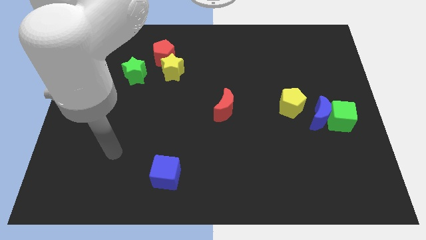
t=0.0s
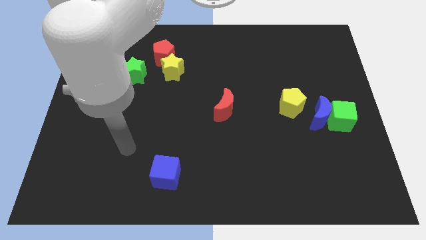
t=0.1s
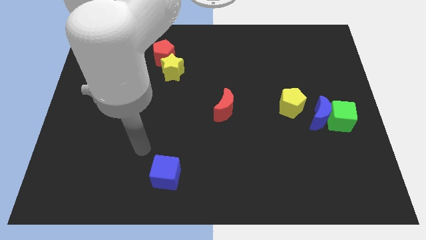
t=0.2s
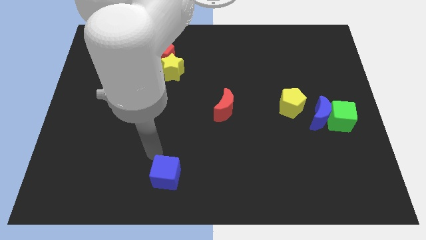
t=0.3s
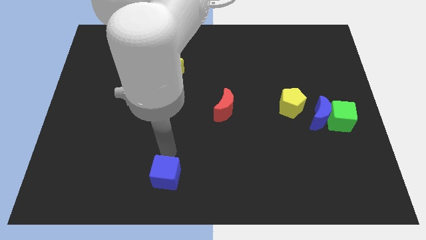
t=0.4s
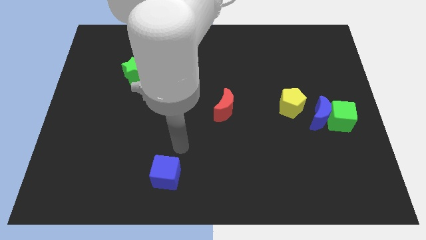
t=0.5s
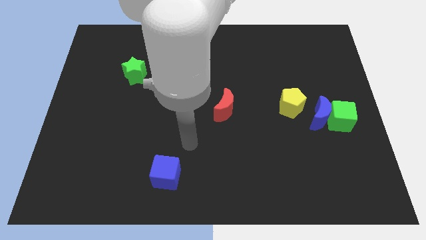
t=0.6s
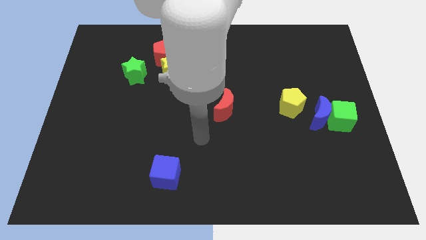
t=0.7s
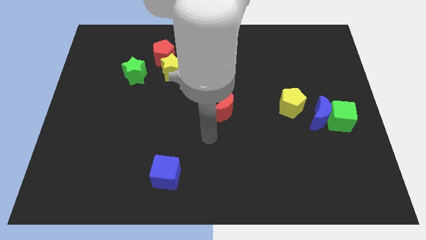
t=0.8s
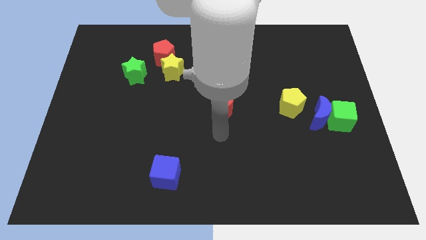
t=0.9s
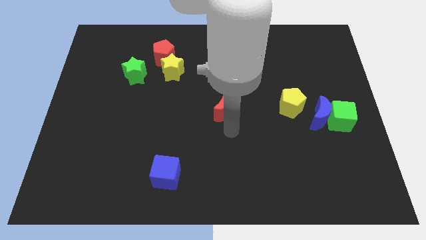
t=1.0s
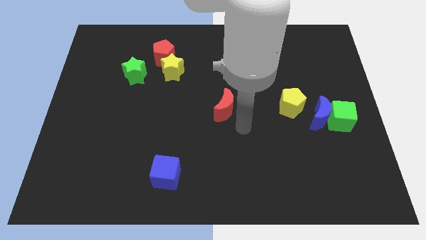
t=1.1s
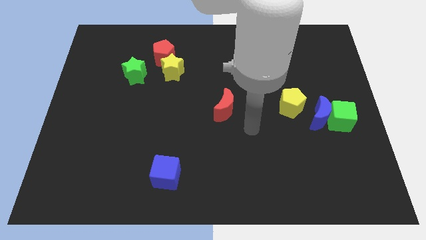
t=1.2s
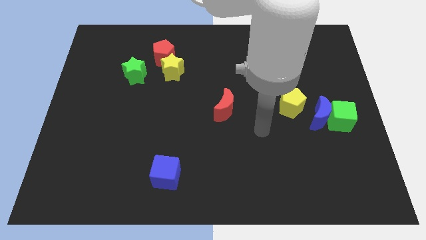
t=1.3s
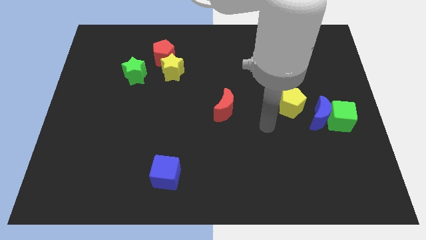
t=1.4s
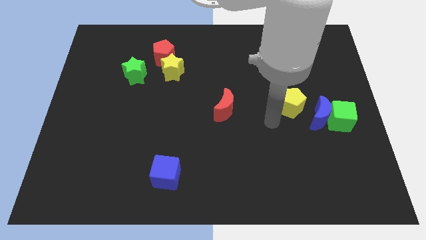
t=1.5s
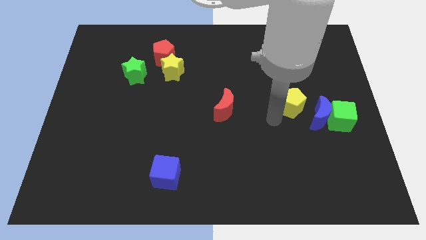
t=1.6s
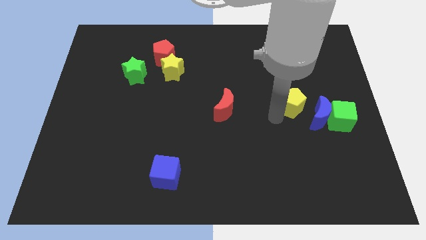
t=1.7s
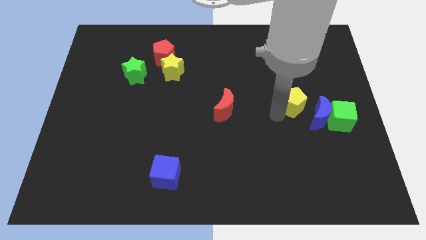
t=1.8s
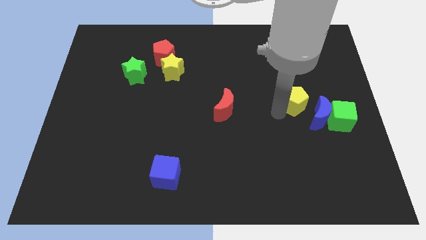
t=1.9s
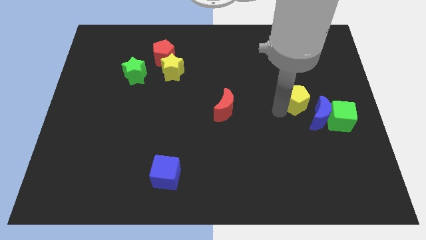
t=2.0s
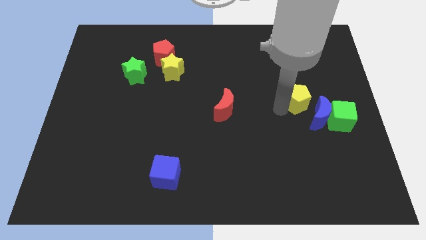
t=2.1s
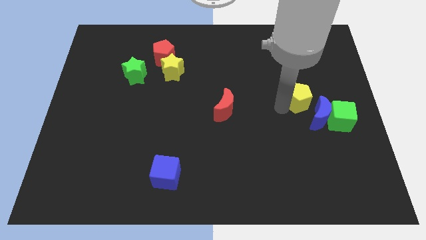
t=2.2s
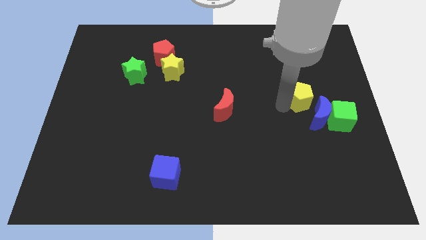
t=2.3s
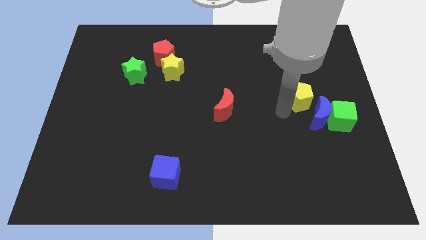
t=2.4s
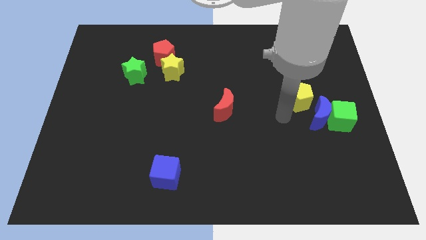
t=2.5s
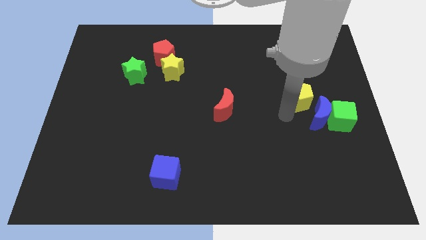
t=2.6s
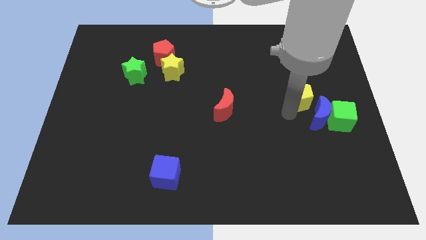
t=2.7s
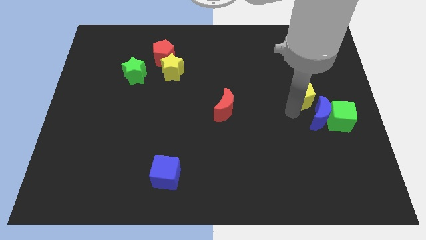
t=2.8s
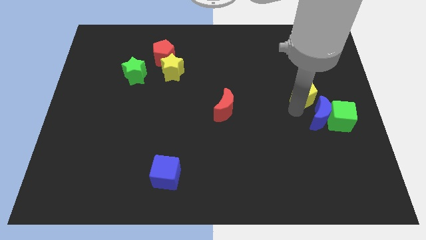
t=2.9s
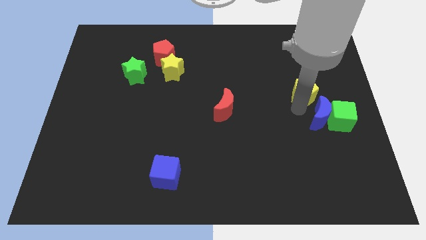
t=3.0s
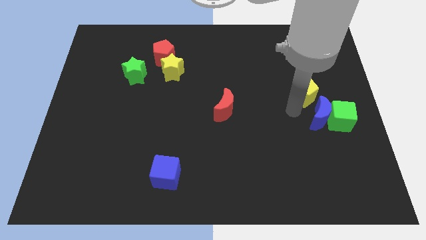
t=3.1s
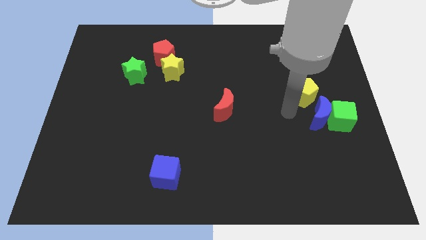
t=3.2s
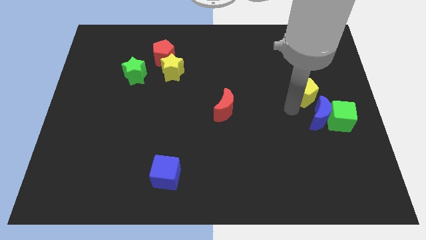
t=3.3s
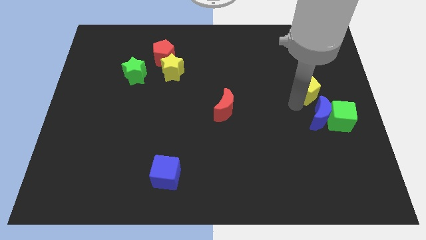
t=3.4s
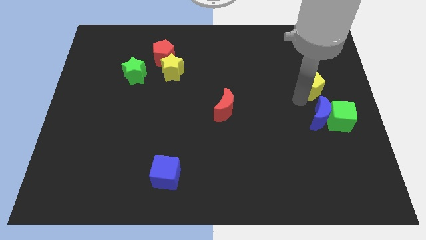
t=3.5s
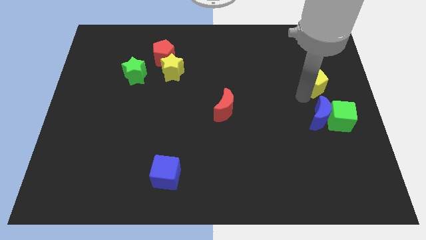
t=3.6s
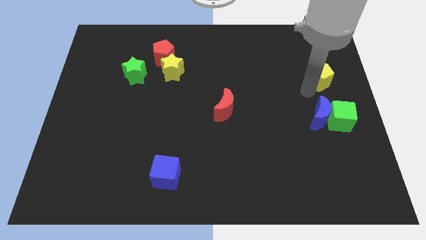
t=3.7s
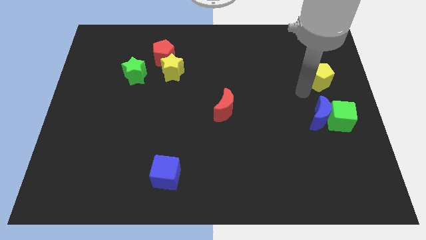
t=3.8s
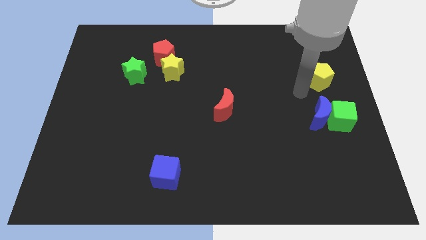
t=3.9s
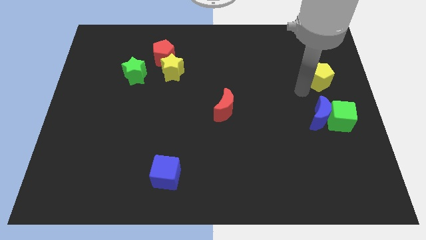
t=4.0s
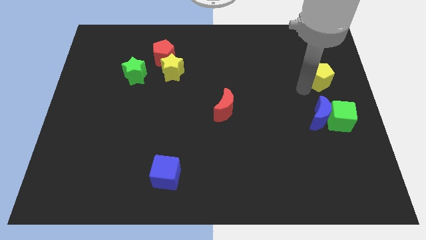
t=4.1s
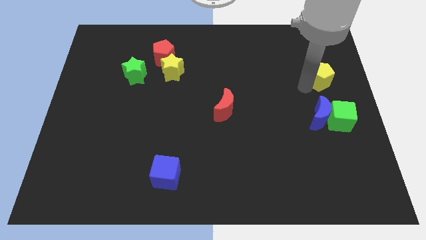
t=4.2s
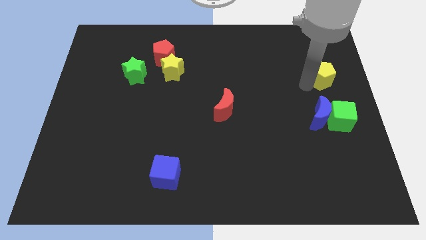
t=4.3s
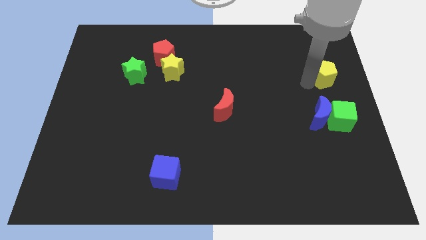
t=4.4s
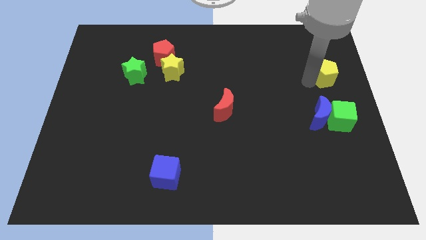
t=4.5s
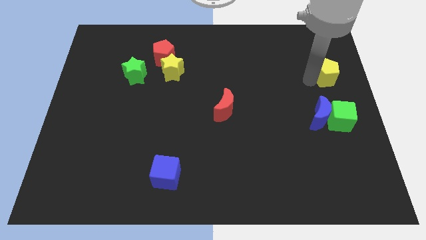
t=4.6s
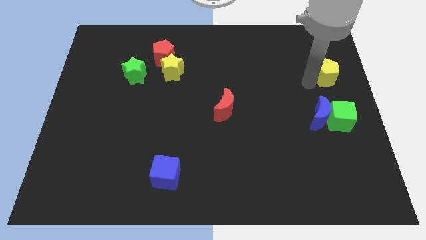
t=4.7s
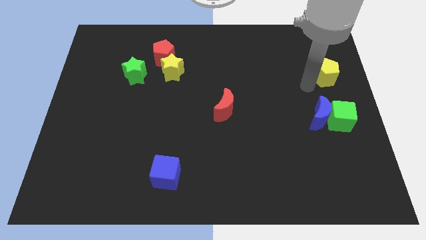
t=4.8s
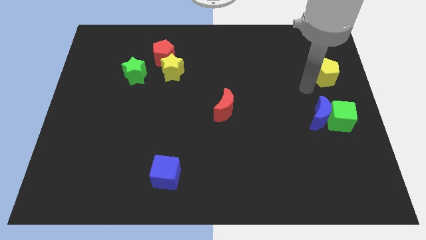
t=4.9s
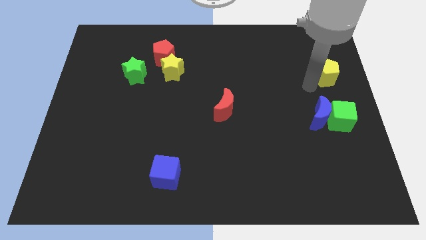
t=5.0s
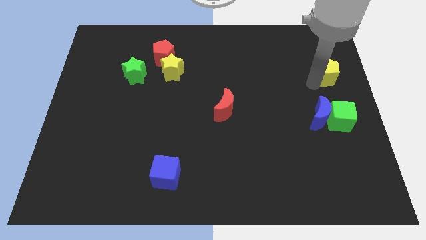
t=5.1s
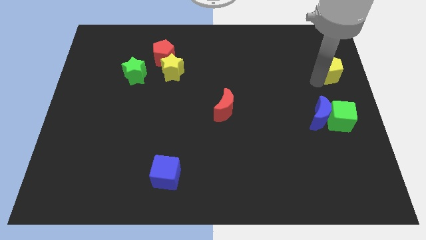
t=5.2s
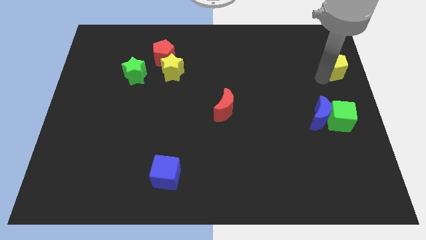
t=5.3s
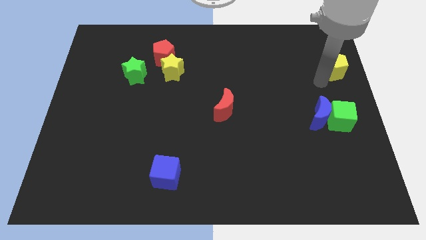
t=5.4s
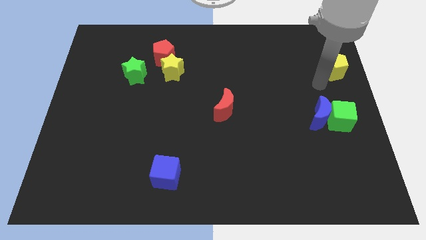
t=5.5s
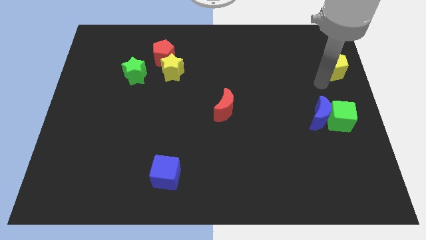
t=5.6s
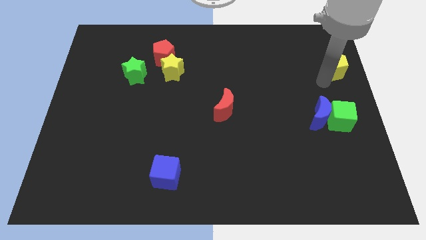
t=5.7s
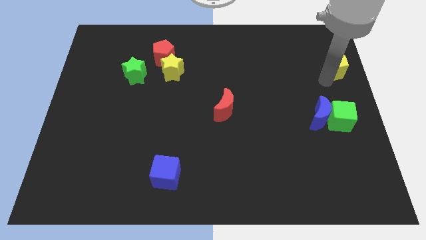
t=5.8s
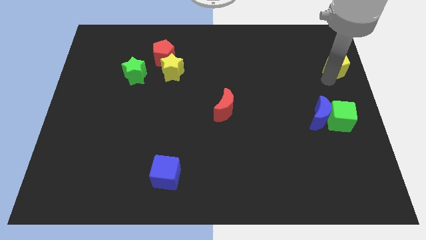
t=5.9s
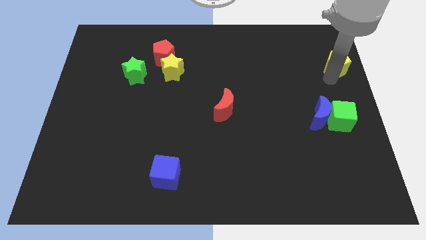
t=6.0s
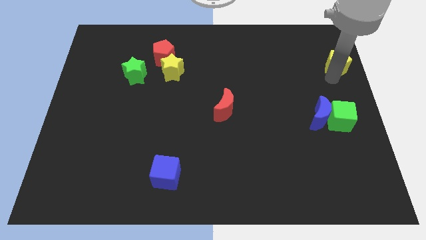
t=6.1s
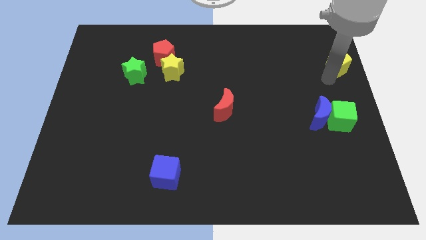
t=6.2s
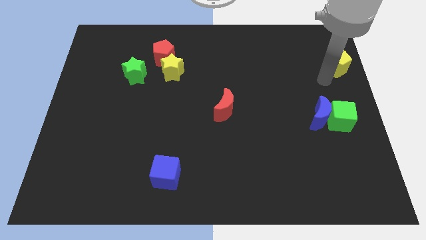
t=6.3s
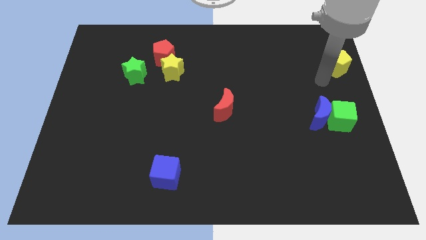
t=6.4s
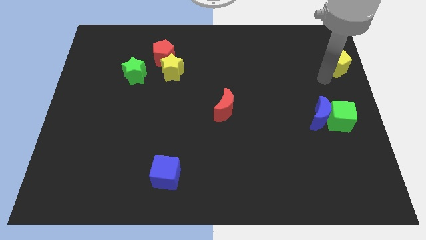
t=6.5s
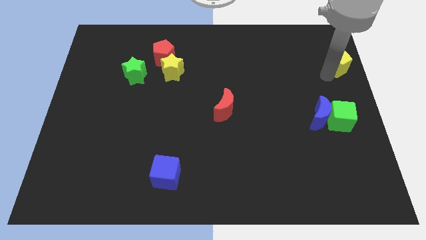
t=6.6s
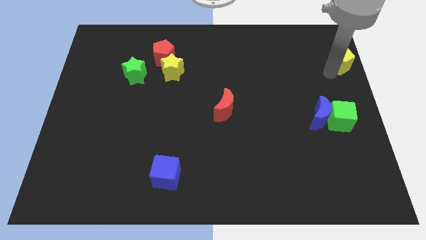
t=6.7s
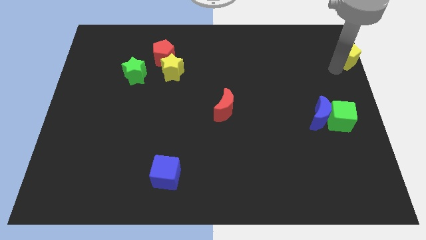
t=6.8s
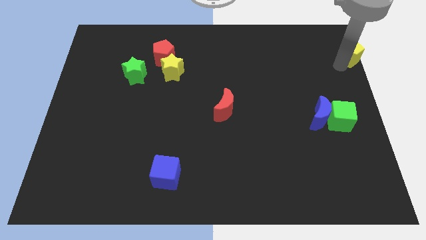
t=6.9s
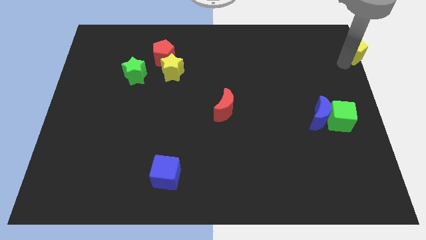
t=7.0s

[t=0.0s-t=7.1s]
put the yellow pentagon to the top right corner
